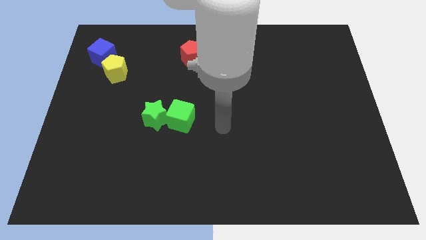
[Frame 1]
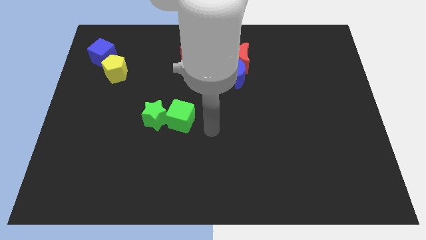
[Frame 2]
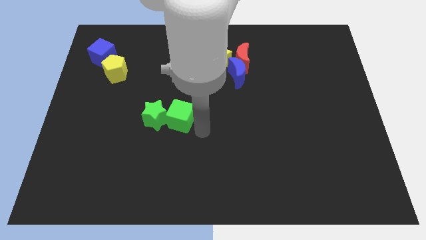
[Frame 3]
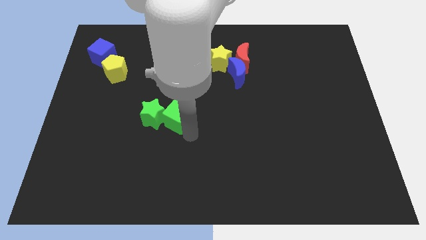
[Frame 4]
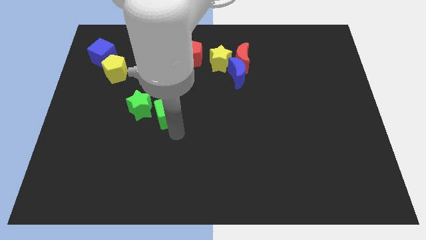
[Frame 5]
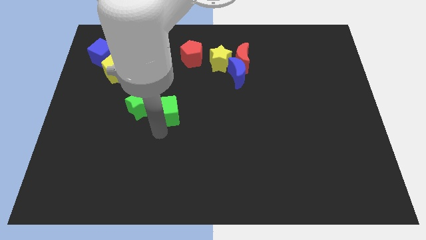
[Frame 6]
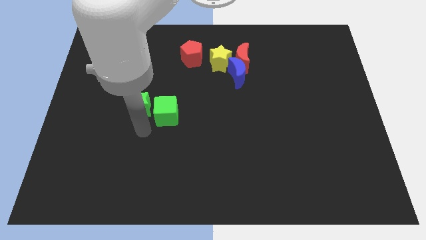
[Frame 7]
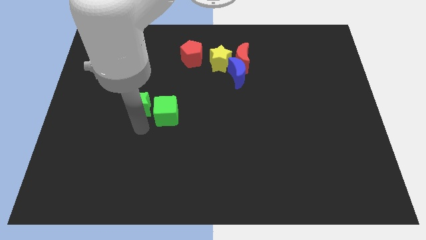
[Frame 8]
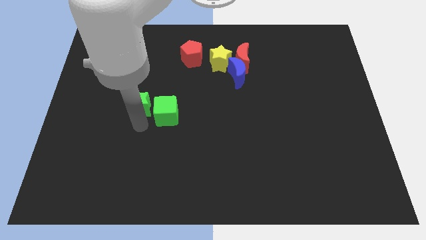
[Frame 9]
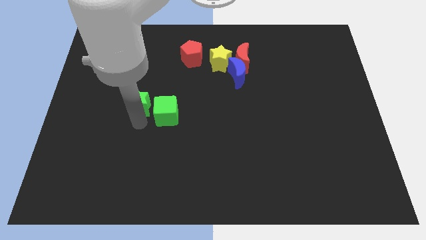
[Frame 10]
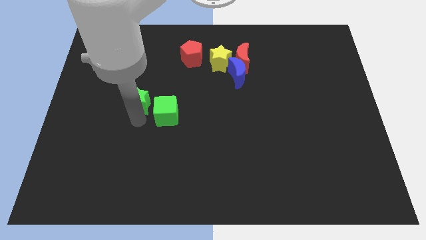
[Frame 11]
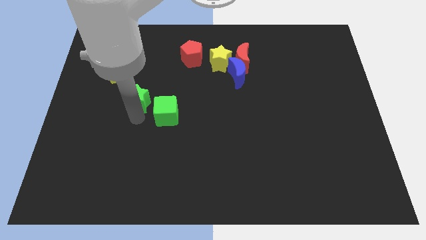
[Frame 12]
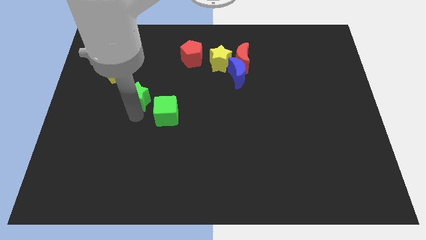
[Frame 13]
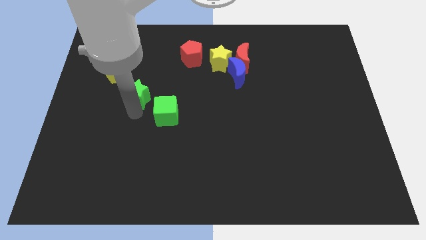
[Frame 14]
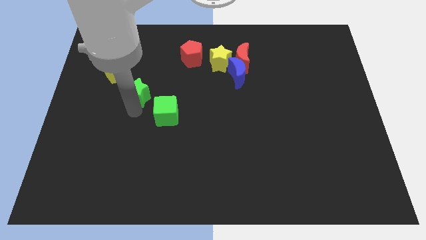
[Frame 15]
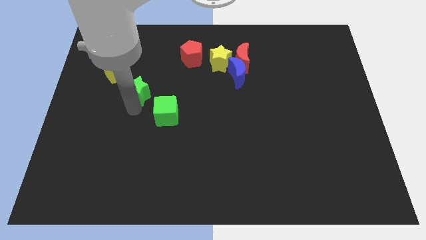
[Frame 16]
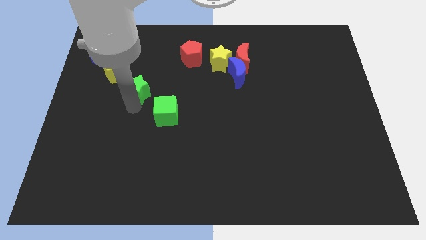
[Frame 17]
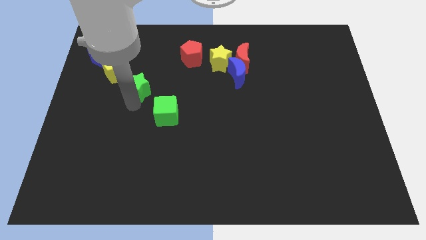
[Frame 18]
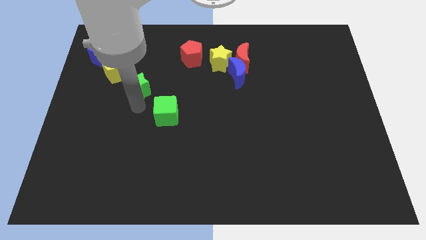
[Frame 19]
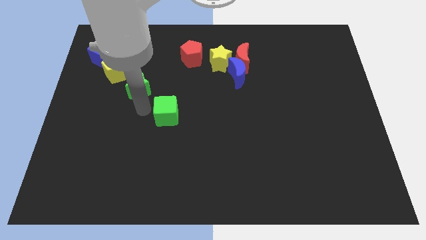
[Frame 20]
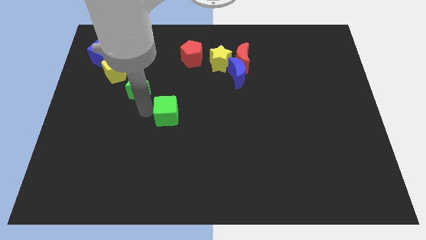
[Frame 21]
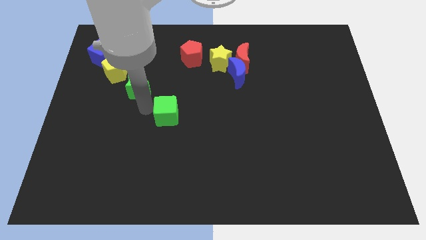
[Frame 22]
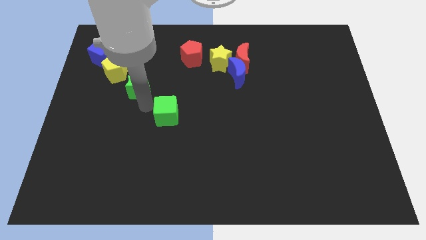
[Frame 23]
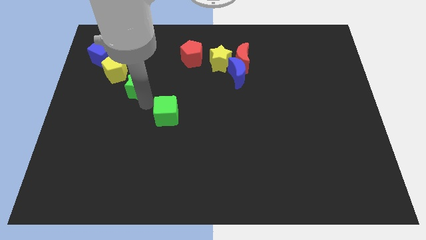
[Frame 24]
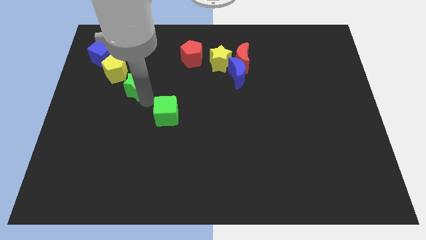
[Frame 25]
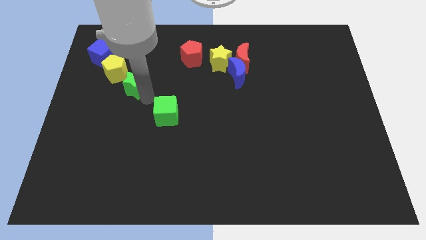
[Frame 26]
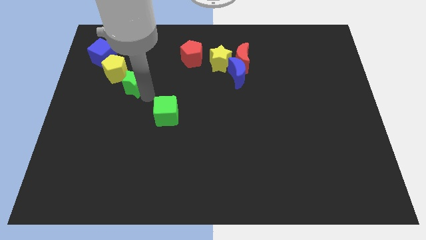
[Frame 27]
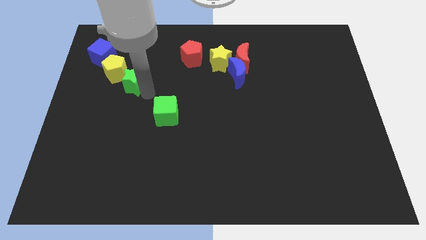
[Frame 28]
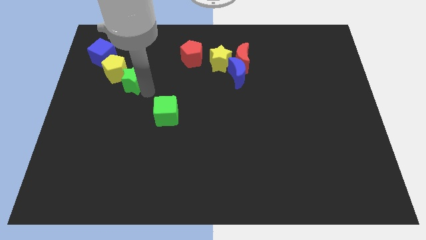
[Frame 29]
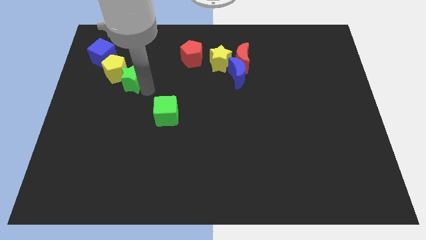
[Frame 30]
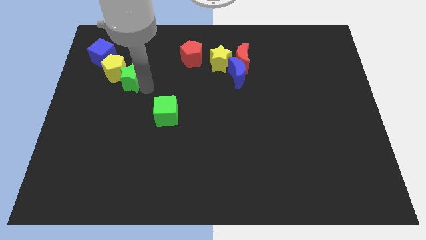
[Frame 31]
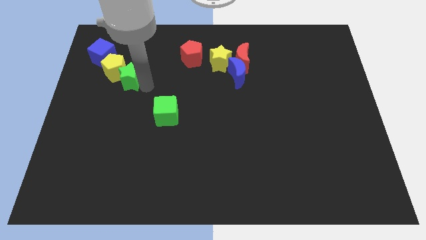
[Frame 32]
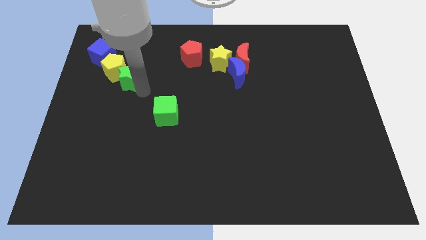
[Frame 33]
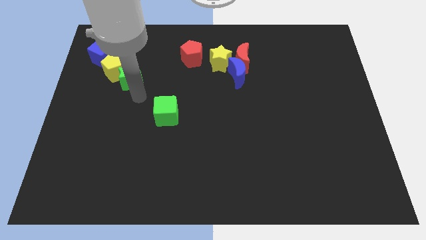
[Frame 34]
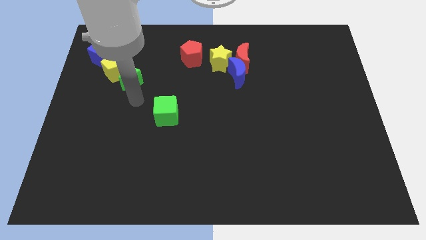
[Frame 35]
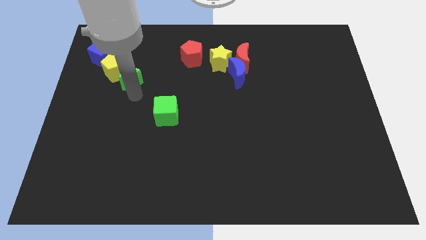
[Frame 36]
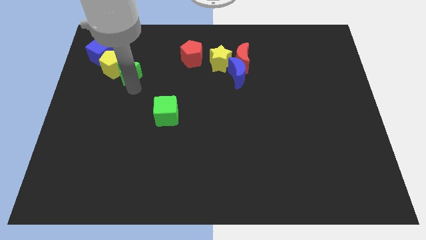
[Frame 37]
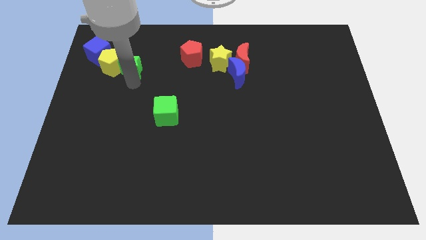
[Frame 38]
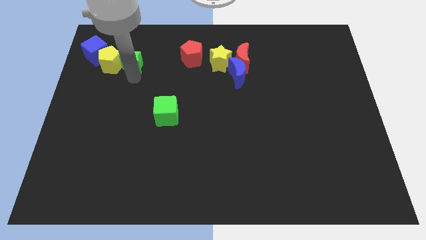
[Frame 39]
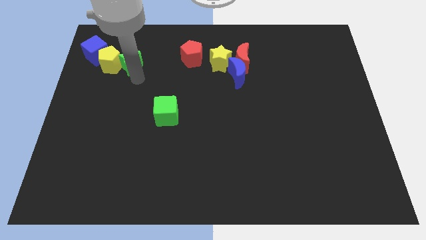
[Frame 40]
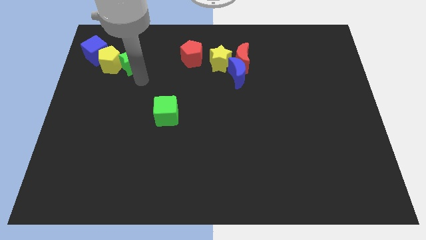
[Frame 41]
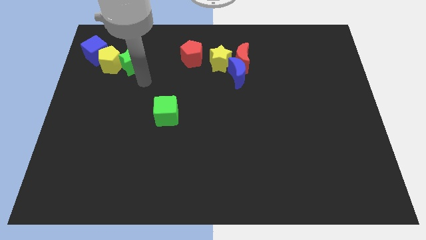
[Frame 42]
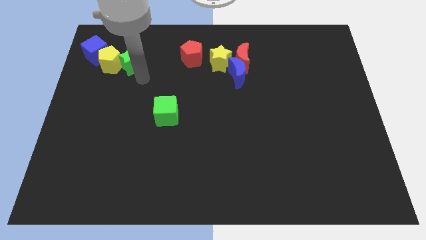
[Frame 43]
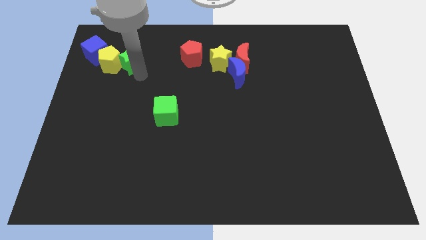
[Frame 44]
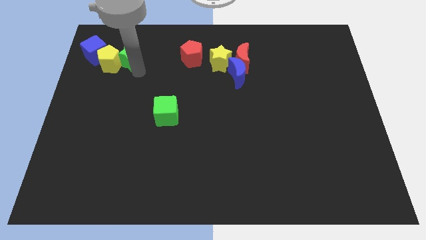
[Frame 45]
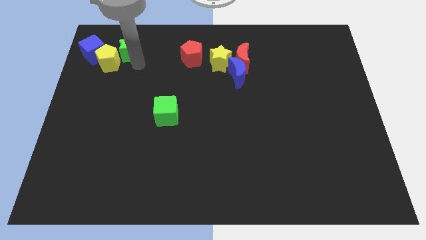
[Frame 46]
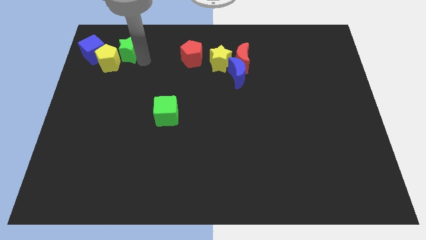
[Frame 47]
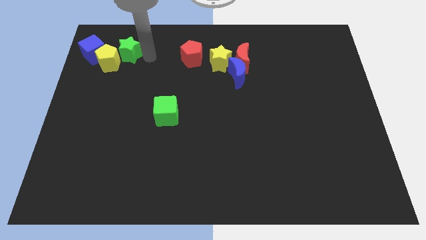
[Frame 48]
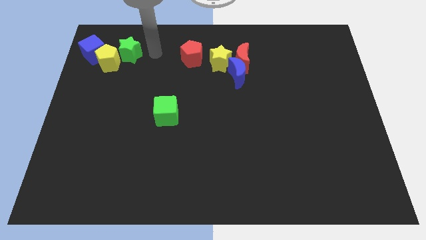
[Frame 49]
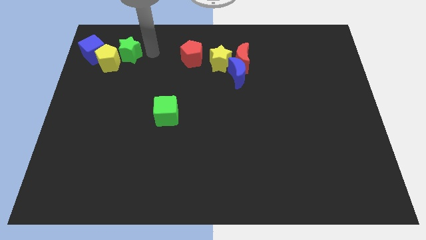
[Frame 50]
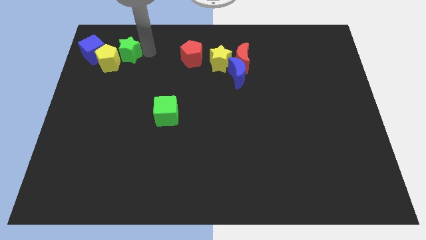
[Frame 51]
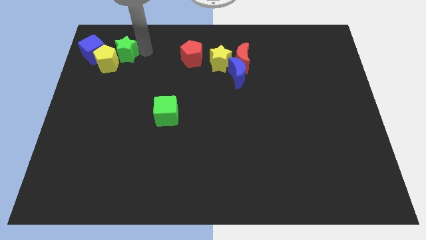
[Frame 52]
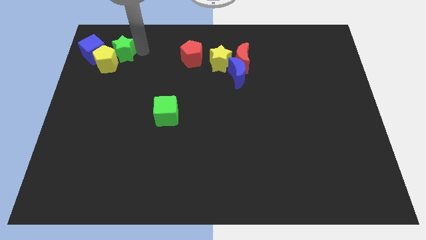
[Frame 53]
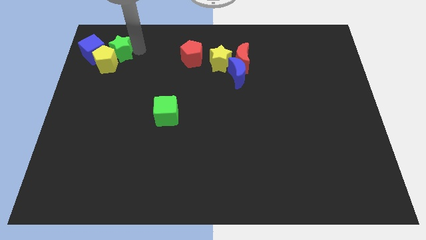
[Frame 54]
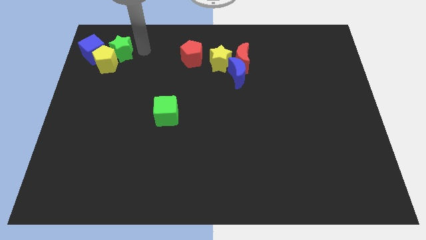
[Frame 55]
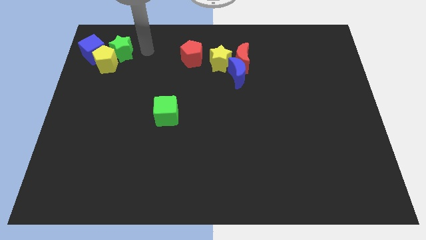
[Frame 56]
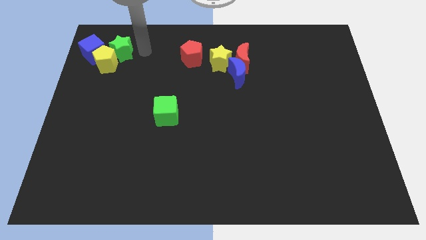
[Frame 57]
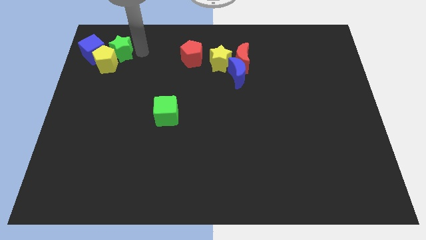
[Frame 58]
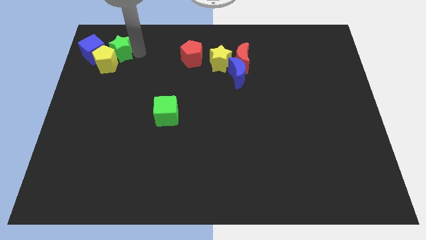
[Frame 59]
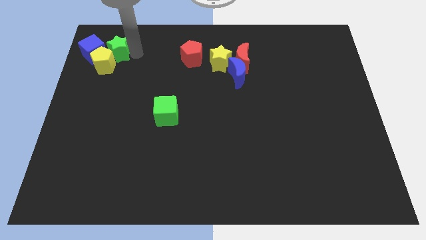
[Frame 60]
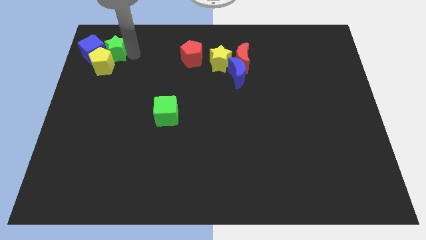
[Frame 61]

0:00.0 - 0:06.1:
put the green star to the blue cube

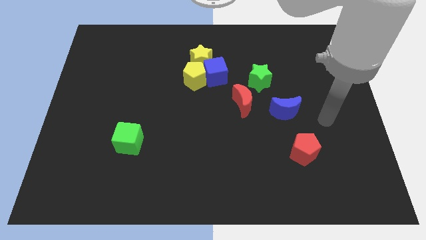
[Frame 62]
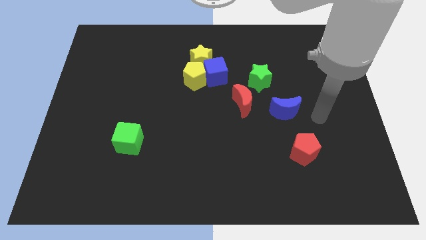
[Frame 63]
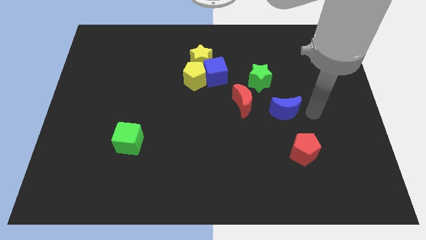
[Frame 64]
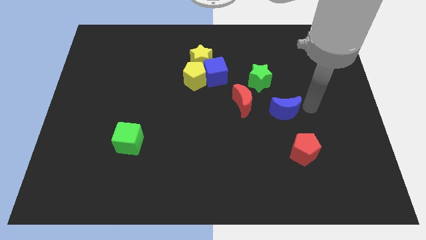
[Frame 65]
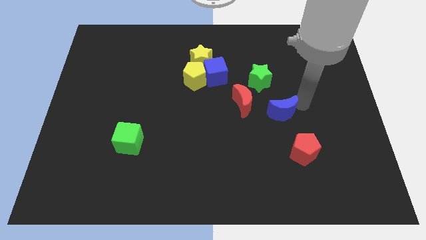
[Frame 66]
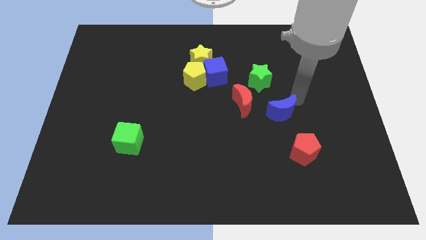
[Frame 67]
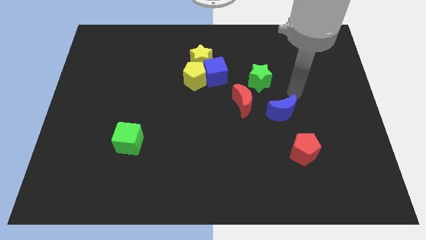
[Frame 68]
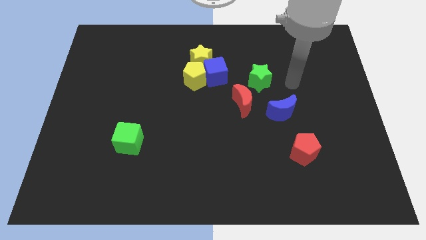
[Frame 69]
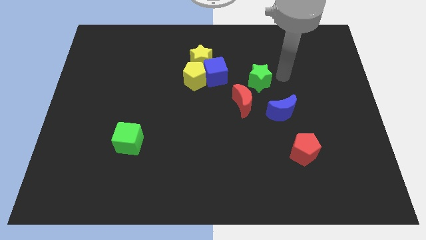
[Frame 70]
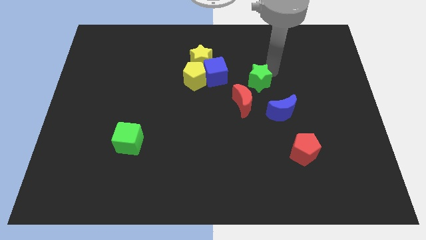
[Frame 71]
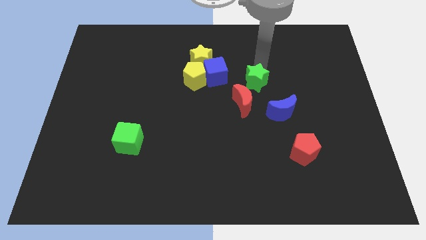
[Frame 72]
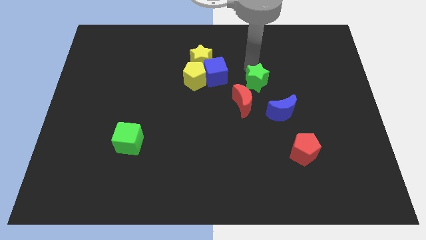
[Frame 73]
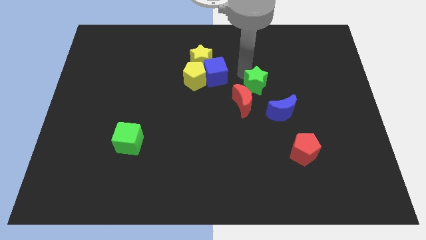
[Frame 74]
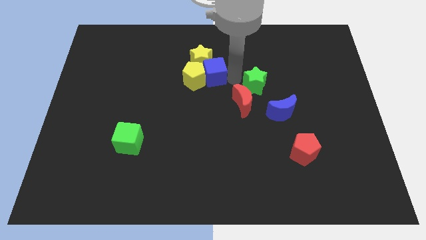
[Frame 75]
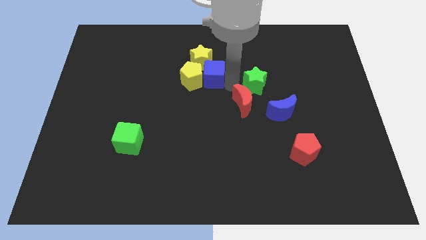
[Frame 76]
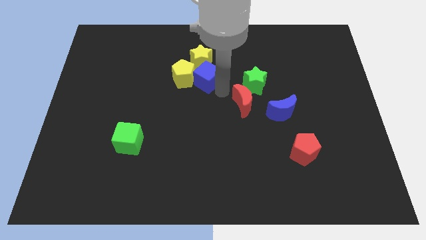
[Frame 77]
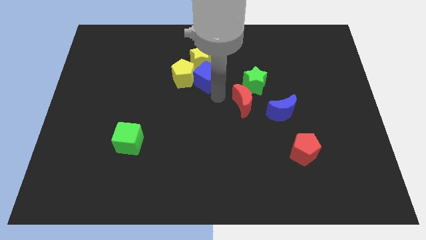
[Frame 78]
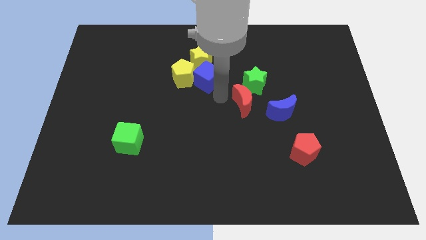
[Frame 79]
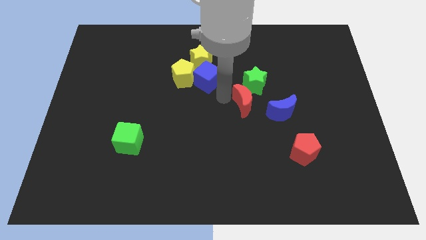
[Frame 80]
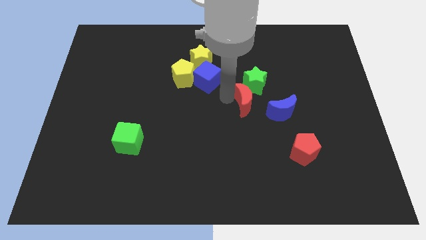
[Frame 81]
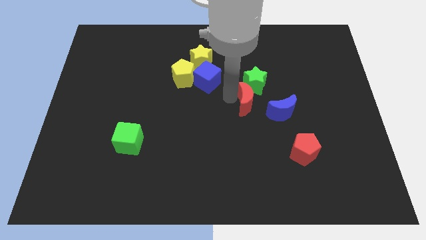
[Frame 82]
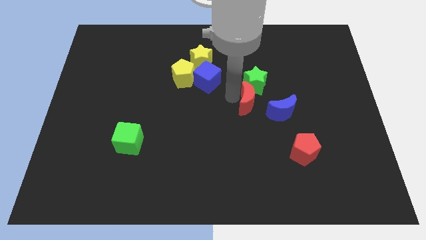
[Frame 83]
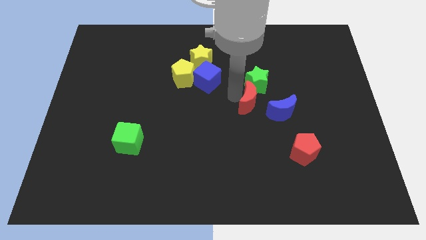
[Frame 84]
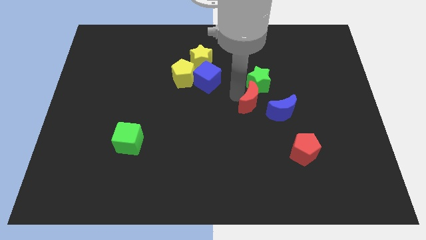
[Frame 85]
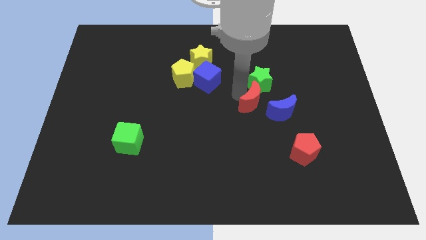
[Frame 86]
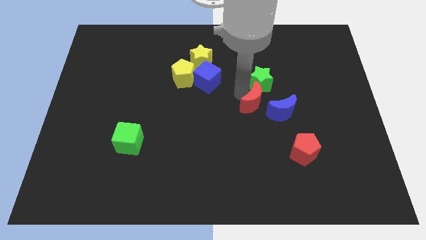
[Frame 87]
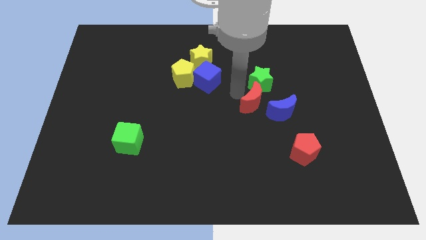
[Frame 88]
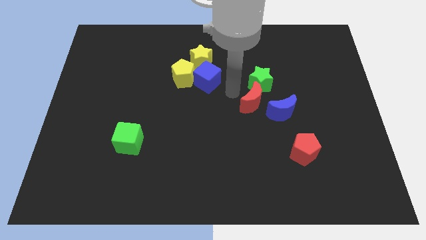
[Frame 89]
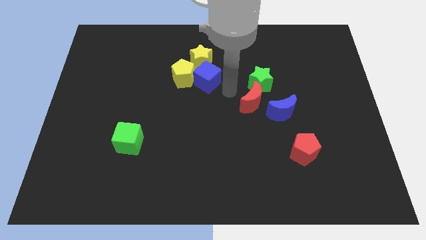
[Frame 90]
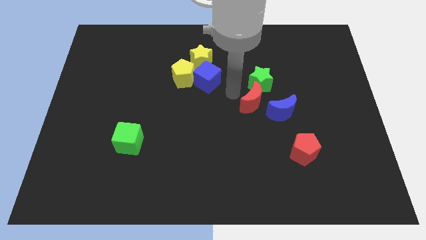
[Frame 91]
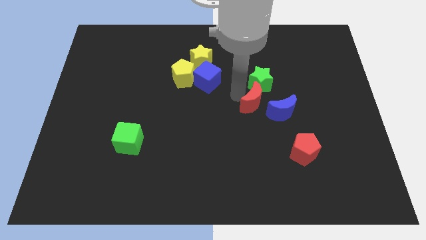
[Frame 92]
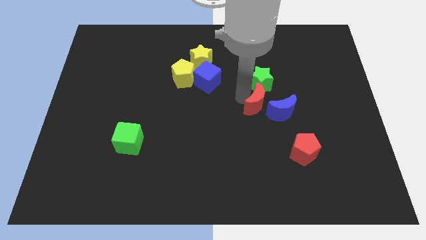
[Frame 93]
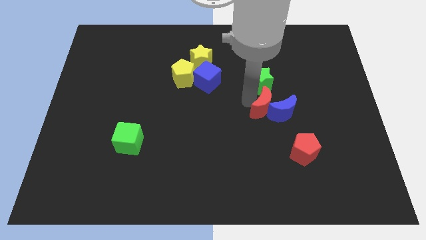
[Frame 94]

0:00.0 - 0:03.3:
push the red moon next to the blue moon
